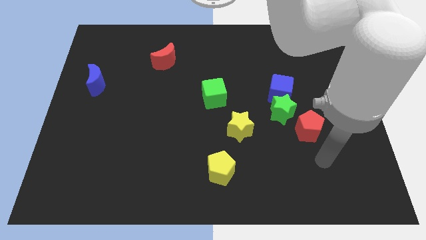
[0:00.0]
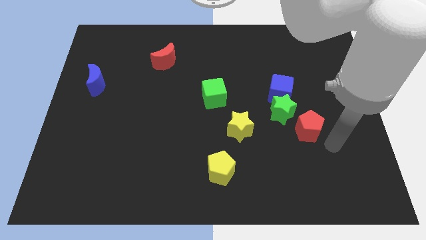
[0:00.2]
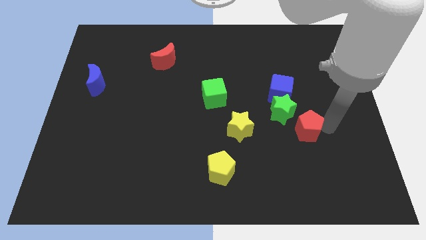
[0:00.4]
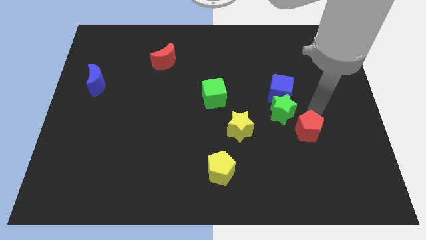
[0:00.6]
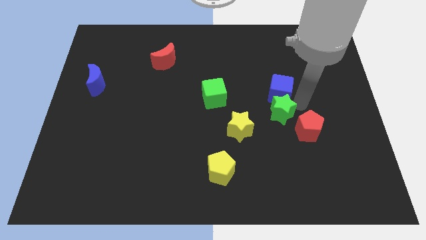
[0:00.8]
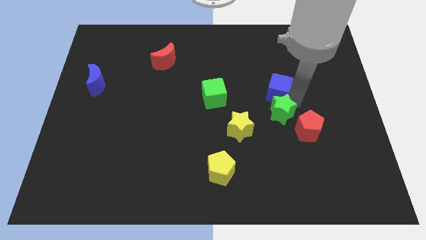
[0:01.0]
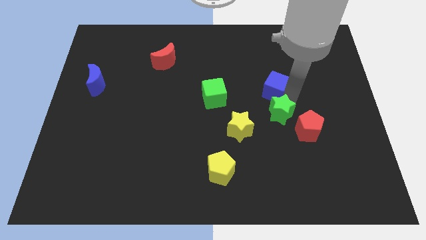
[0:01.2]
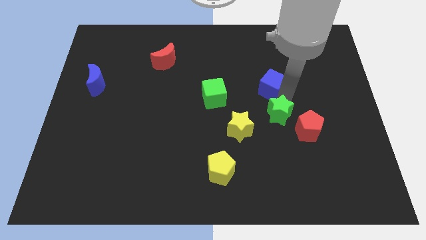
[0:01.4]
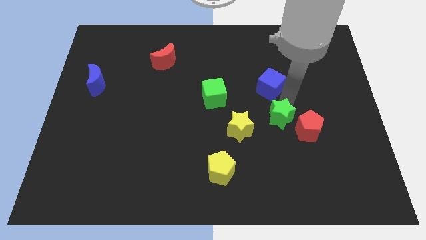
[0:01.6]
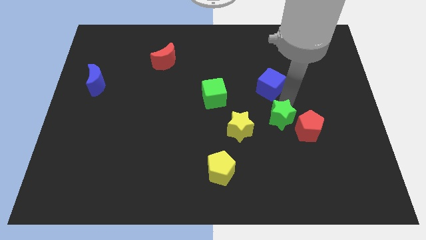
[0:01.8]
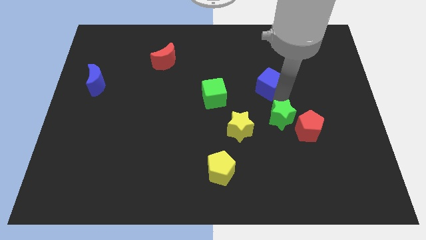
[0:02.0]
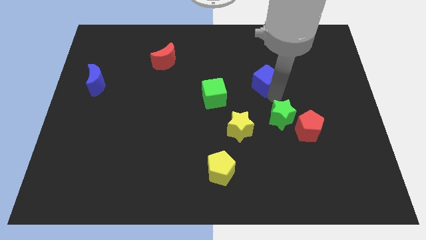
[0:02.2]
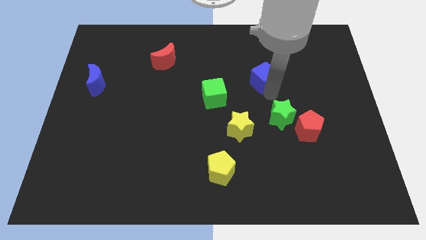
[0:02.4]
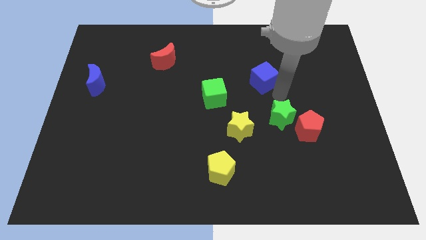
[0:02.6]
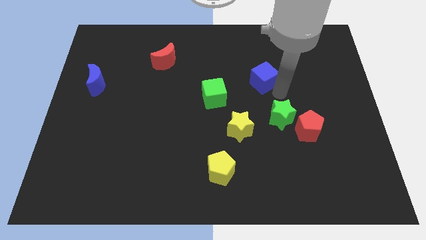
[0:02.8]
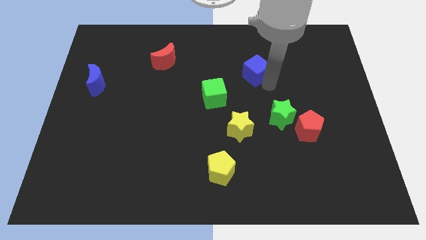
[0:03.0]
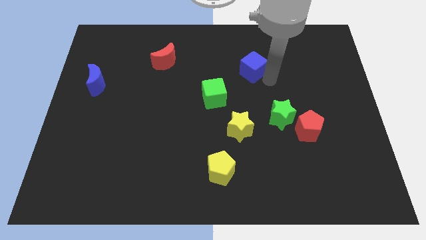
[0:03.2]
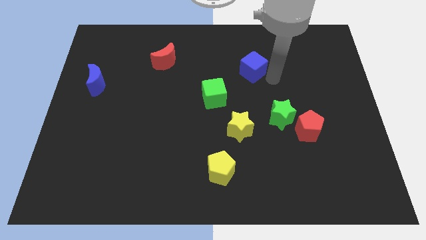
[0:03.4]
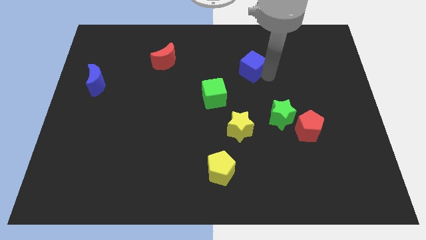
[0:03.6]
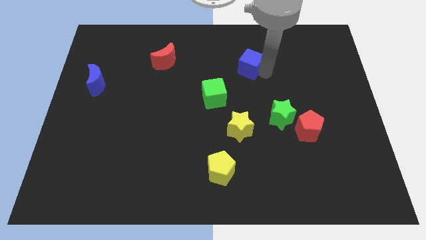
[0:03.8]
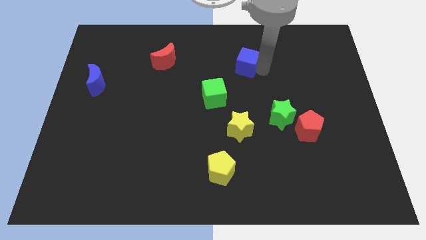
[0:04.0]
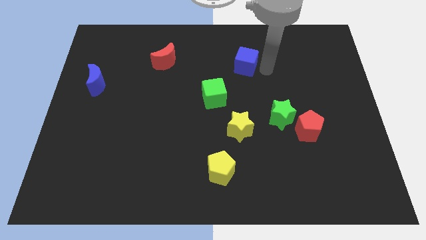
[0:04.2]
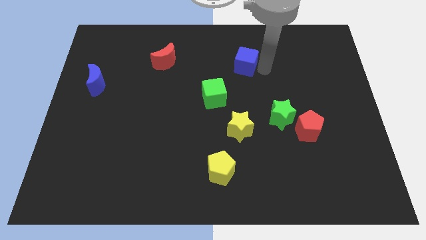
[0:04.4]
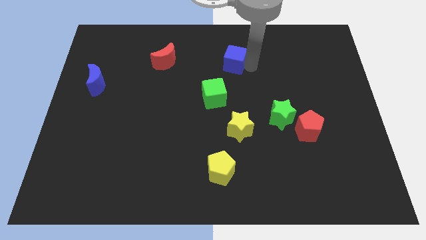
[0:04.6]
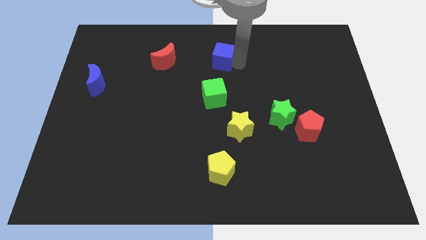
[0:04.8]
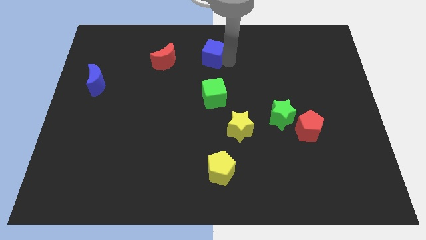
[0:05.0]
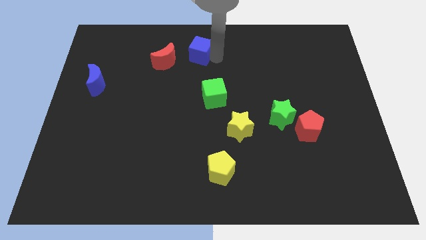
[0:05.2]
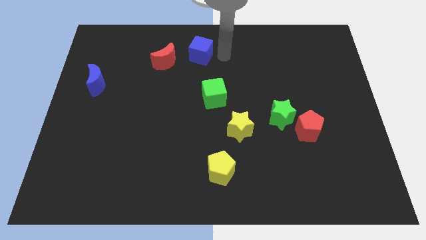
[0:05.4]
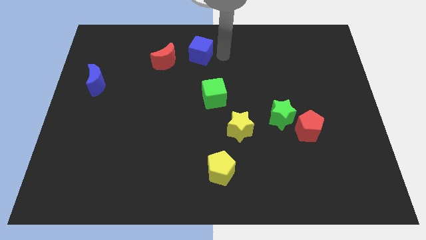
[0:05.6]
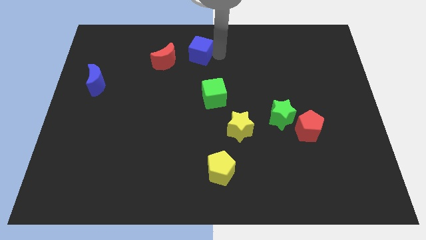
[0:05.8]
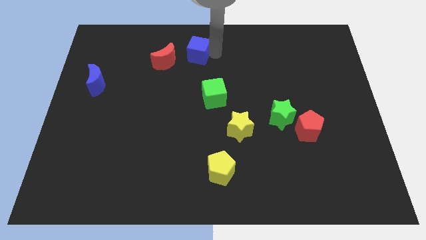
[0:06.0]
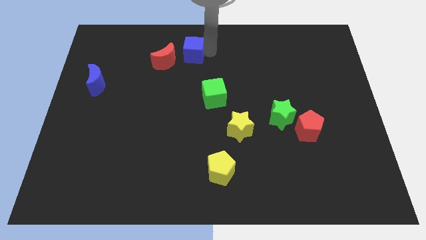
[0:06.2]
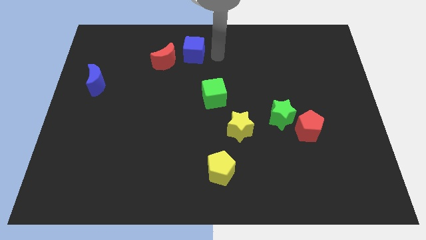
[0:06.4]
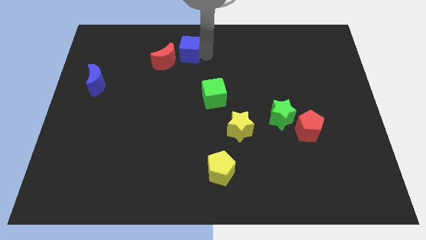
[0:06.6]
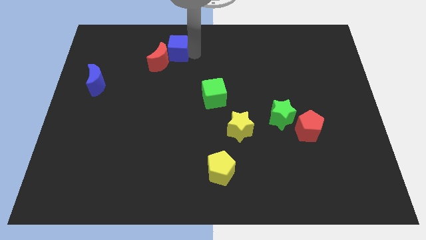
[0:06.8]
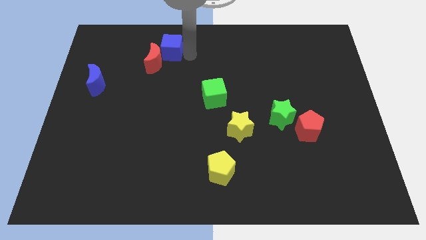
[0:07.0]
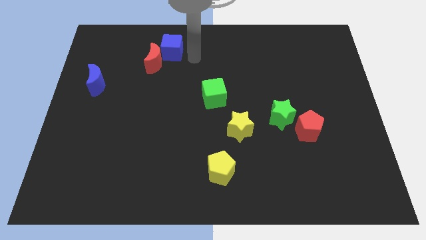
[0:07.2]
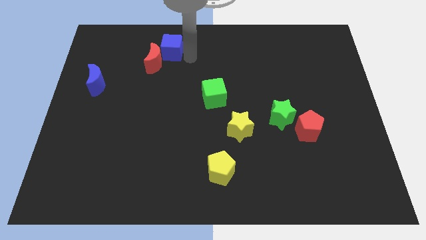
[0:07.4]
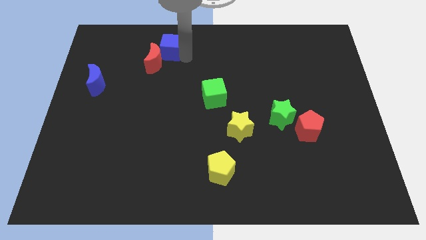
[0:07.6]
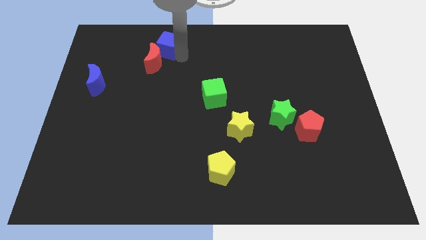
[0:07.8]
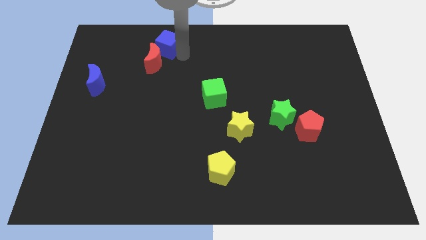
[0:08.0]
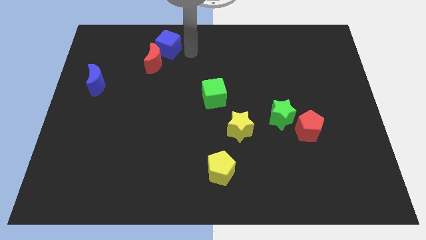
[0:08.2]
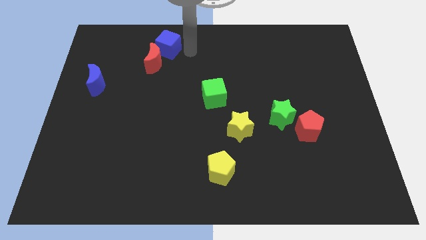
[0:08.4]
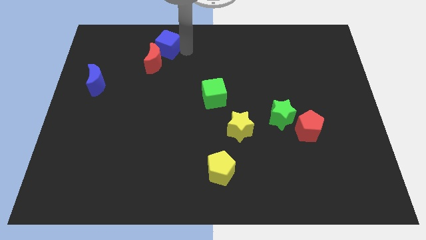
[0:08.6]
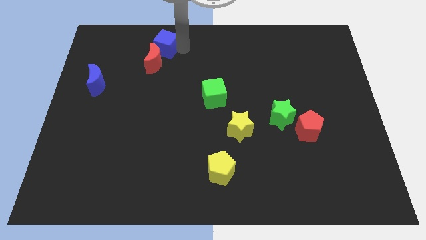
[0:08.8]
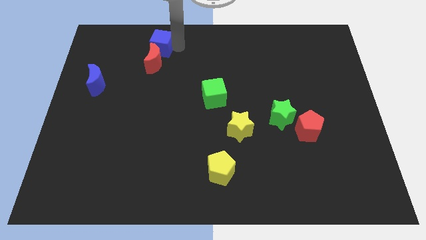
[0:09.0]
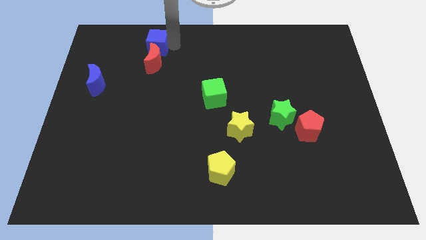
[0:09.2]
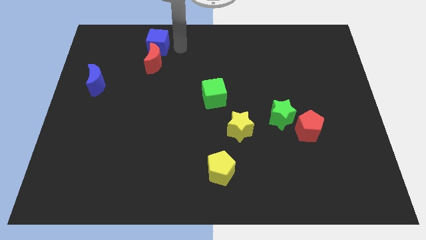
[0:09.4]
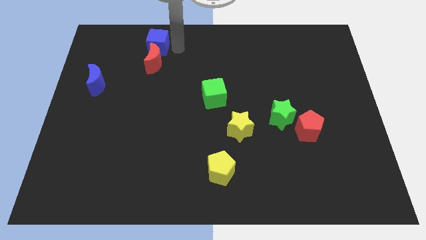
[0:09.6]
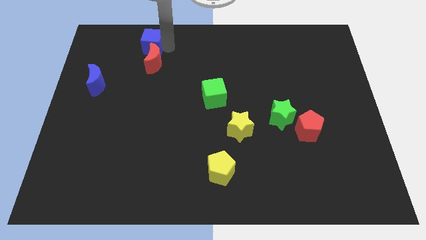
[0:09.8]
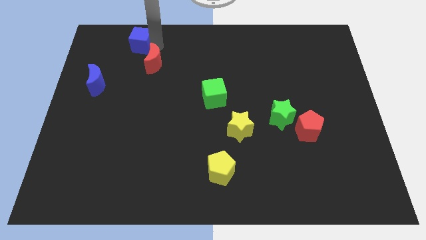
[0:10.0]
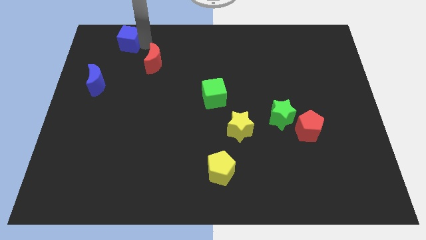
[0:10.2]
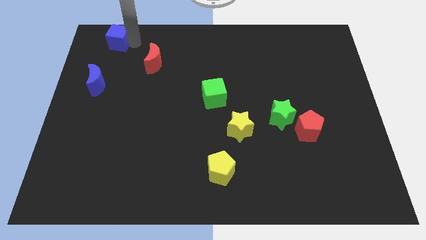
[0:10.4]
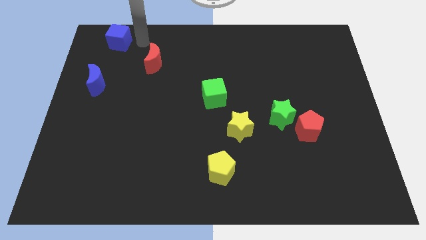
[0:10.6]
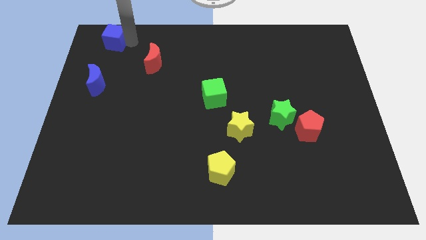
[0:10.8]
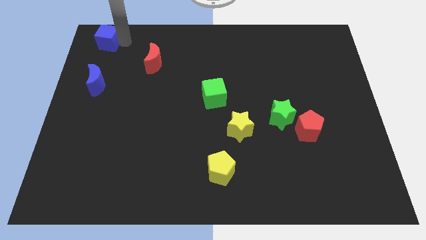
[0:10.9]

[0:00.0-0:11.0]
push the blue cube to the top left corner
